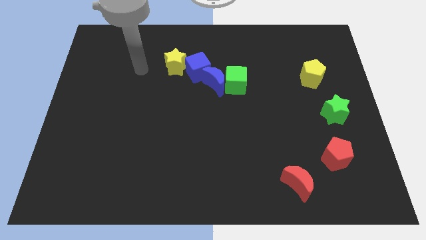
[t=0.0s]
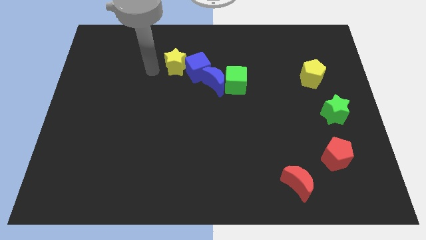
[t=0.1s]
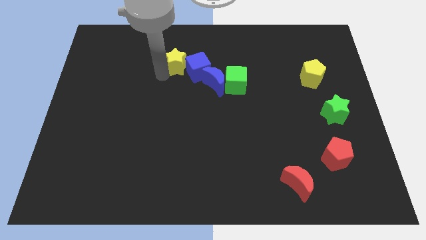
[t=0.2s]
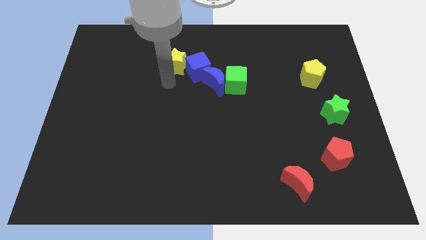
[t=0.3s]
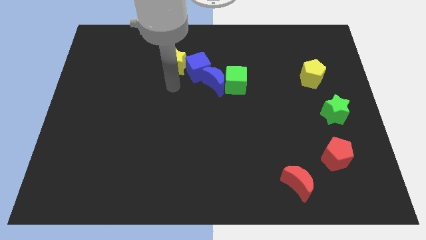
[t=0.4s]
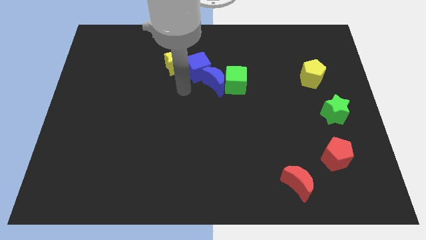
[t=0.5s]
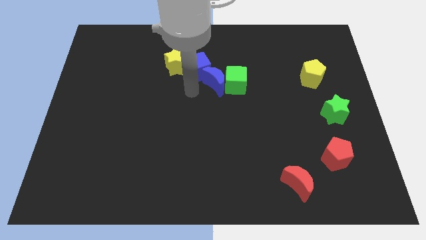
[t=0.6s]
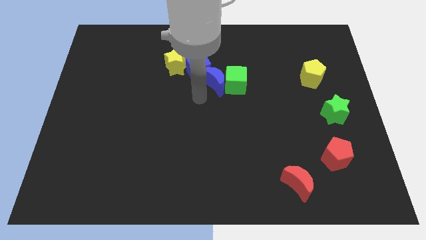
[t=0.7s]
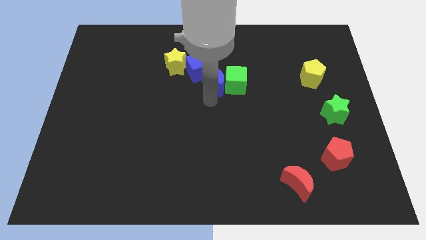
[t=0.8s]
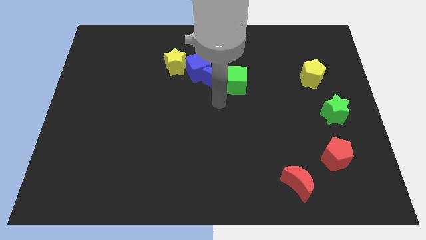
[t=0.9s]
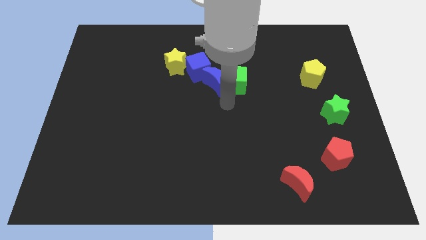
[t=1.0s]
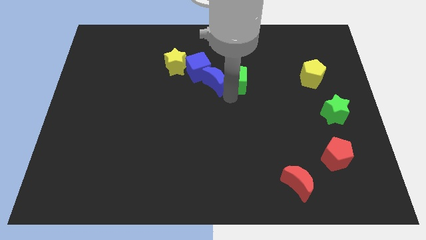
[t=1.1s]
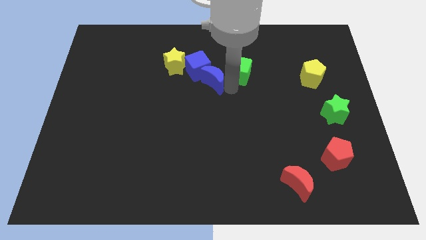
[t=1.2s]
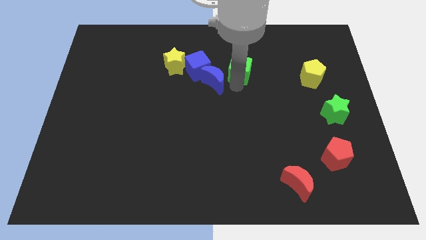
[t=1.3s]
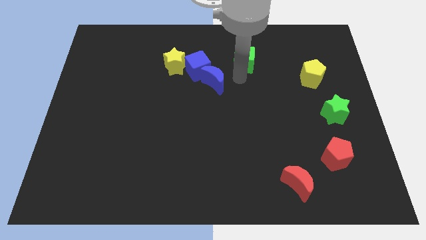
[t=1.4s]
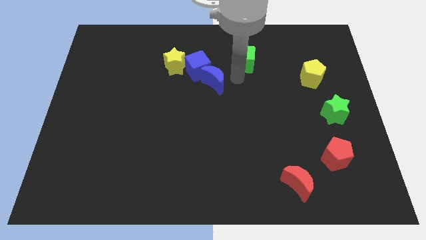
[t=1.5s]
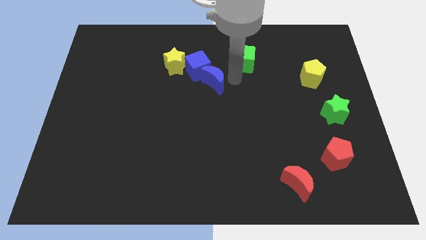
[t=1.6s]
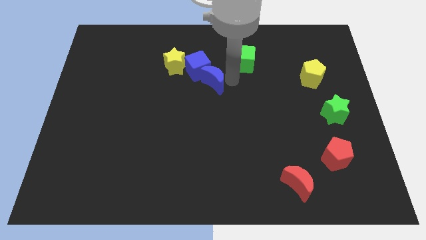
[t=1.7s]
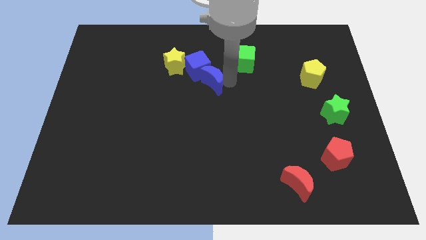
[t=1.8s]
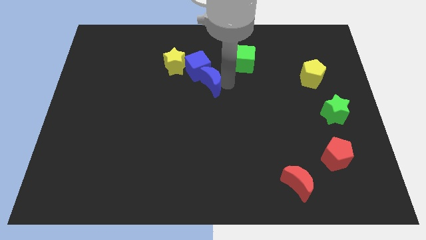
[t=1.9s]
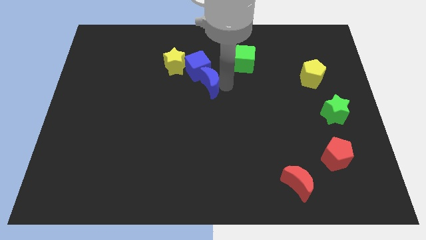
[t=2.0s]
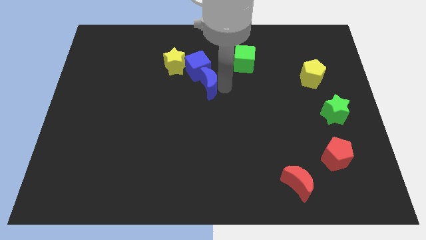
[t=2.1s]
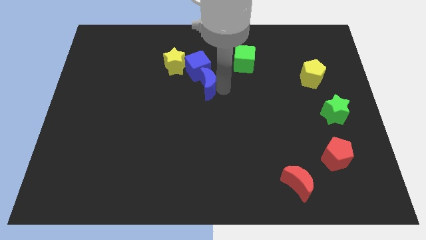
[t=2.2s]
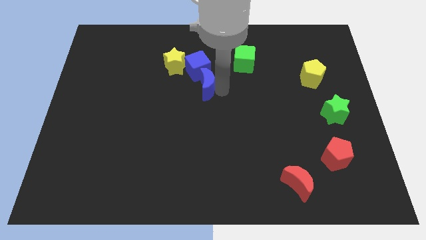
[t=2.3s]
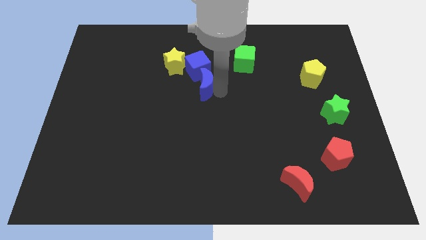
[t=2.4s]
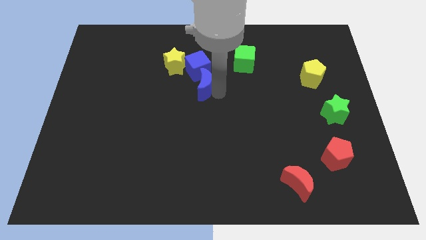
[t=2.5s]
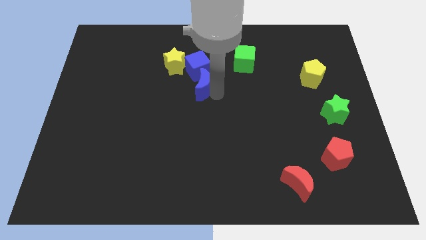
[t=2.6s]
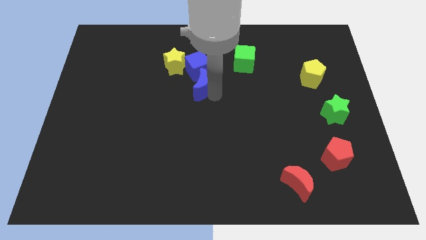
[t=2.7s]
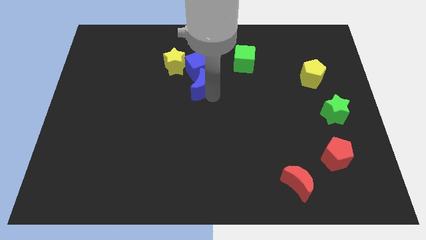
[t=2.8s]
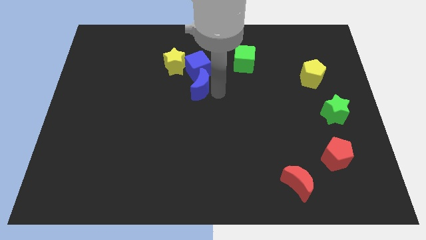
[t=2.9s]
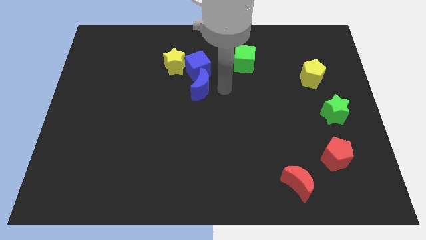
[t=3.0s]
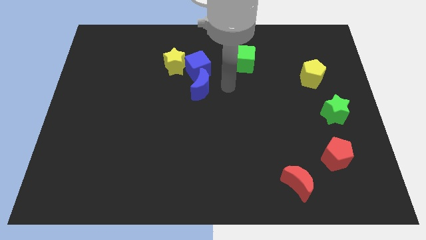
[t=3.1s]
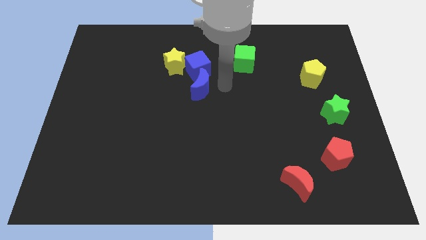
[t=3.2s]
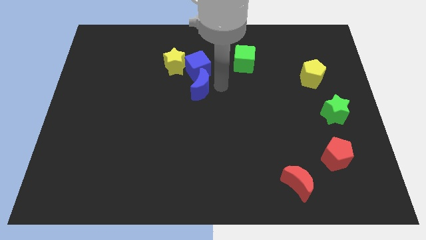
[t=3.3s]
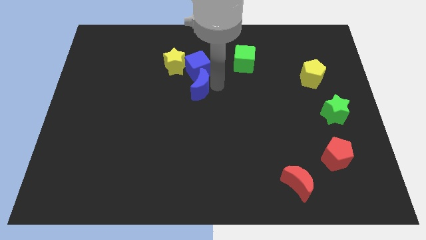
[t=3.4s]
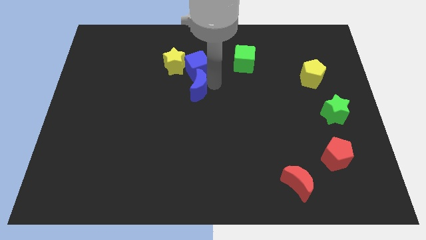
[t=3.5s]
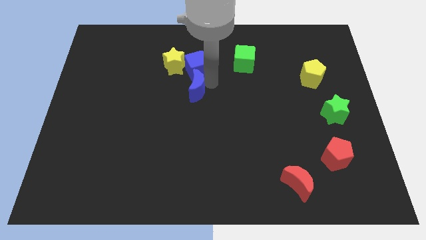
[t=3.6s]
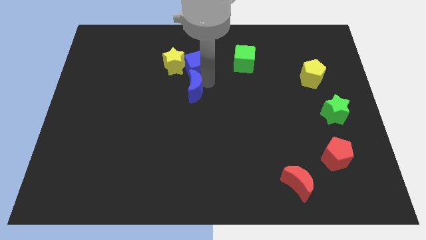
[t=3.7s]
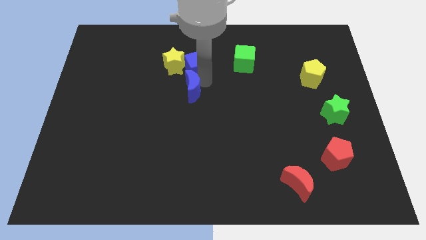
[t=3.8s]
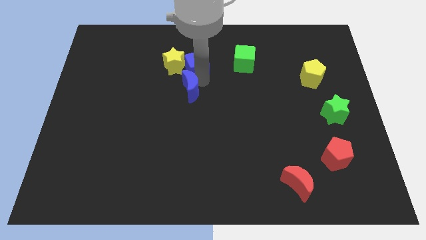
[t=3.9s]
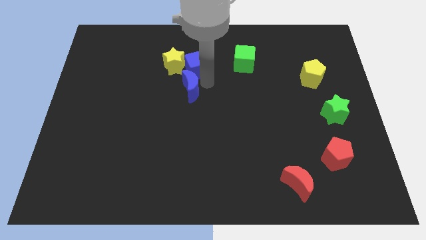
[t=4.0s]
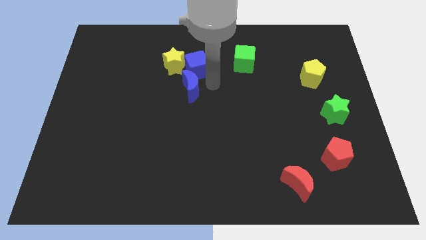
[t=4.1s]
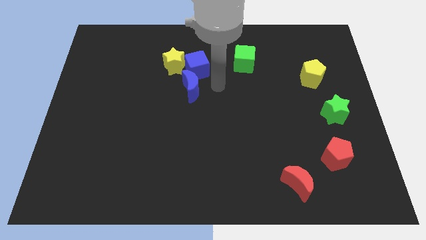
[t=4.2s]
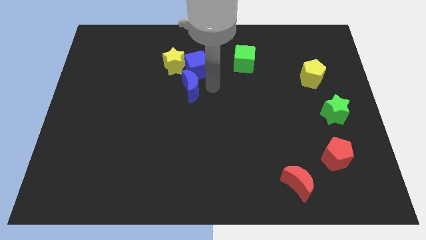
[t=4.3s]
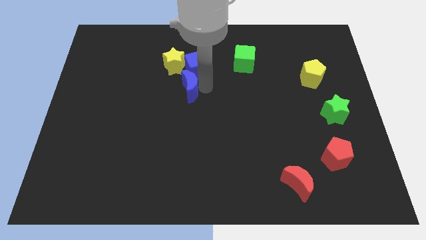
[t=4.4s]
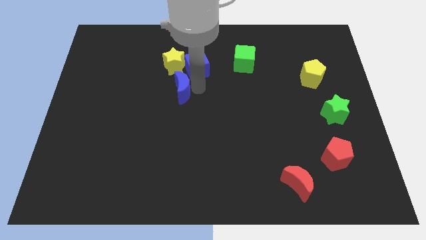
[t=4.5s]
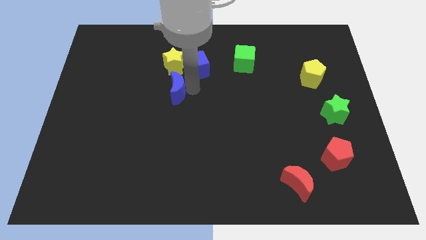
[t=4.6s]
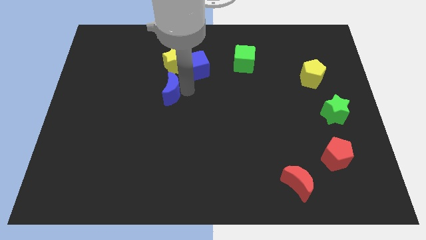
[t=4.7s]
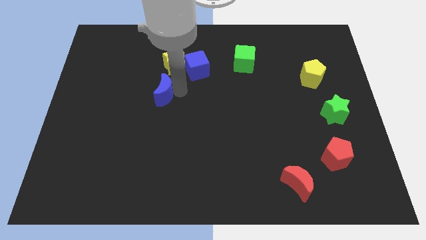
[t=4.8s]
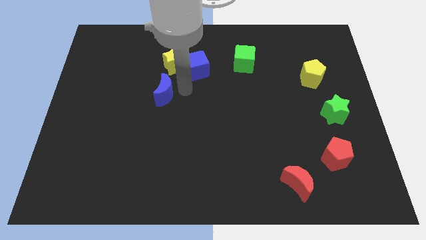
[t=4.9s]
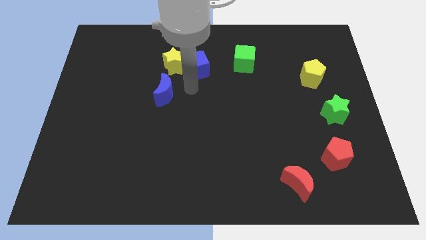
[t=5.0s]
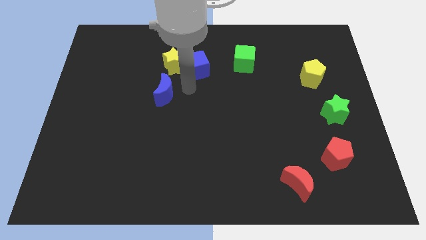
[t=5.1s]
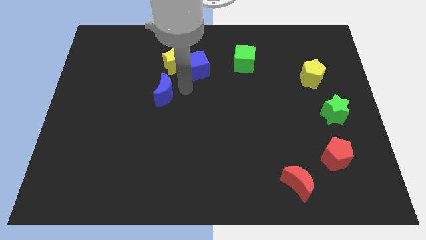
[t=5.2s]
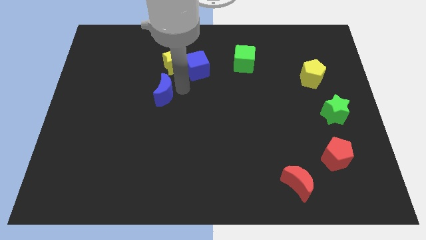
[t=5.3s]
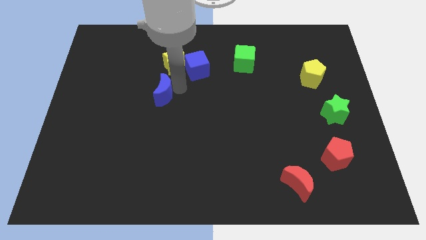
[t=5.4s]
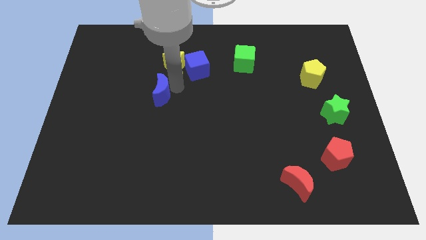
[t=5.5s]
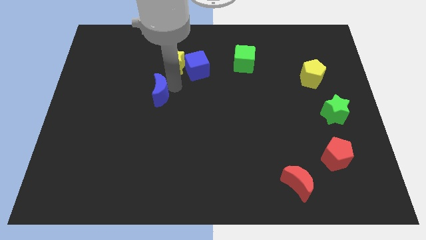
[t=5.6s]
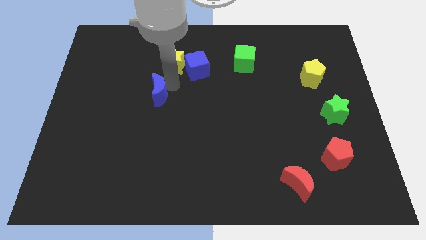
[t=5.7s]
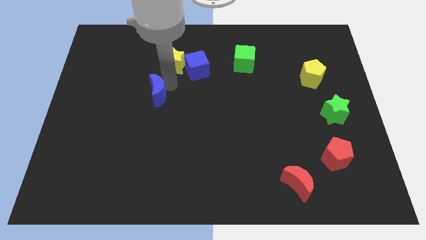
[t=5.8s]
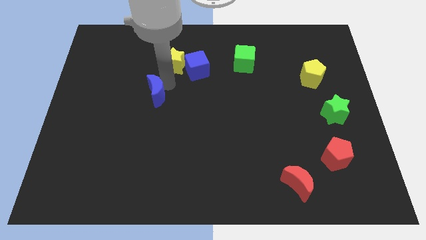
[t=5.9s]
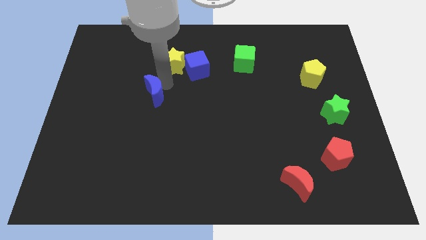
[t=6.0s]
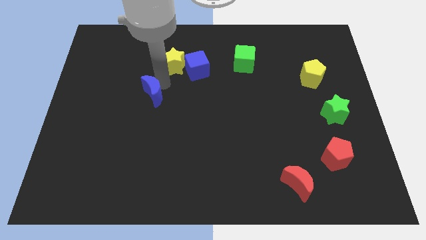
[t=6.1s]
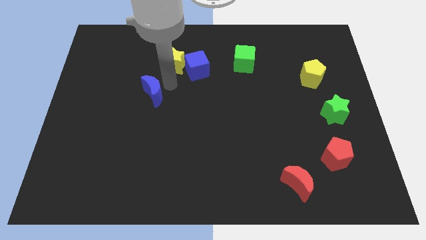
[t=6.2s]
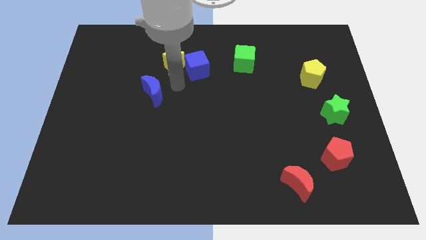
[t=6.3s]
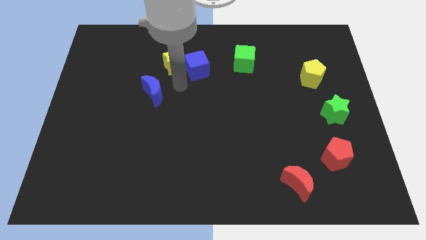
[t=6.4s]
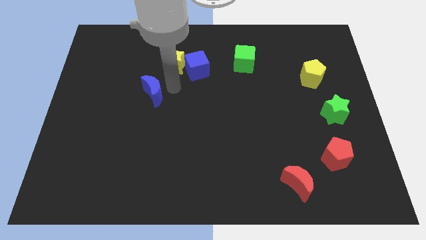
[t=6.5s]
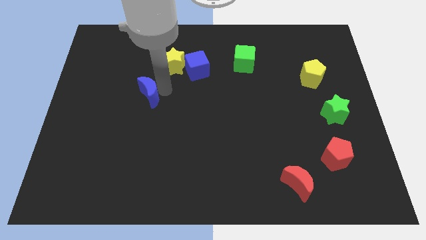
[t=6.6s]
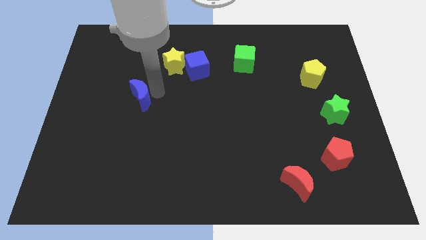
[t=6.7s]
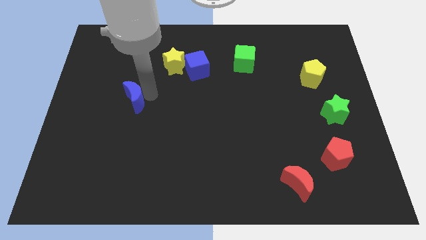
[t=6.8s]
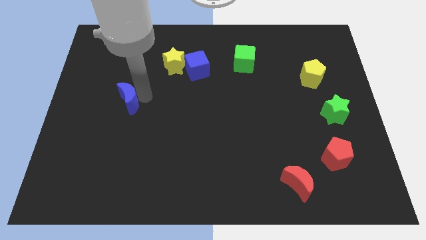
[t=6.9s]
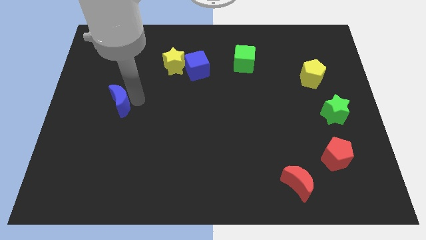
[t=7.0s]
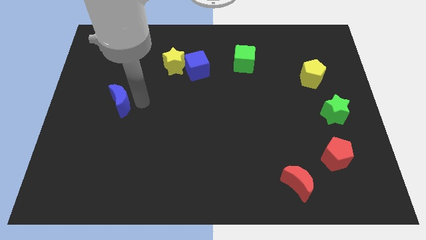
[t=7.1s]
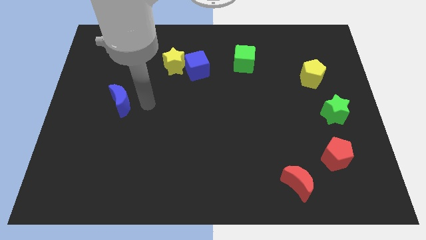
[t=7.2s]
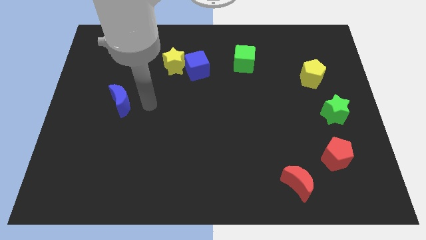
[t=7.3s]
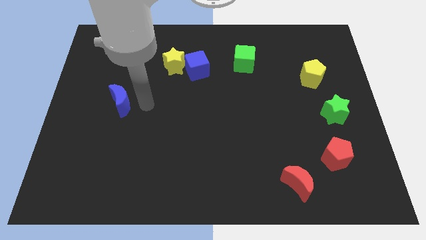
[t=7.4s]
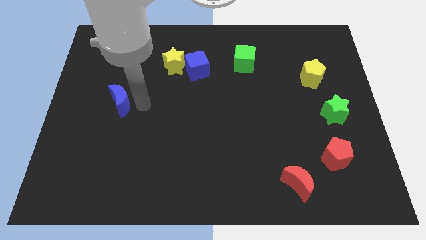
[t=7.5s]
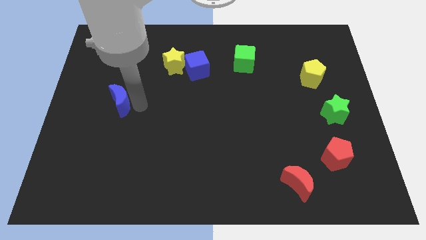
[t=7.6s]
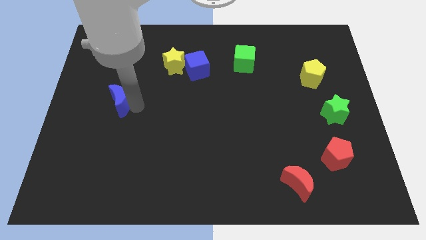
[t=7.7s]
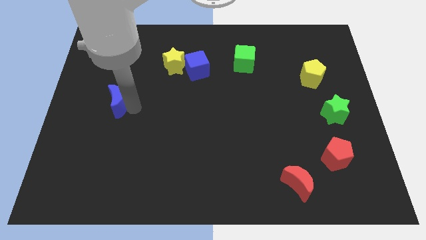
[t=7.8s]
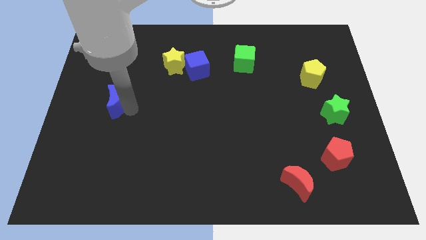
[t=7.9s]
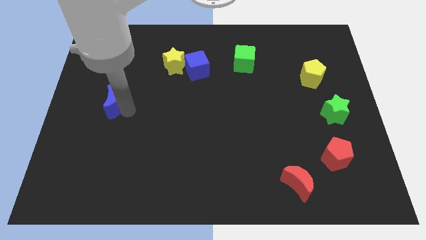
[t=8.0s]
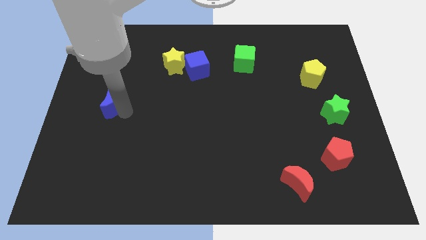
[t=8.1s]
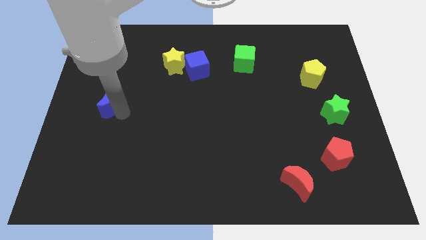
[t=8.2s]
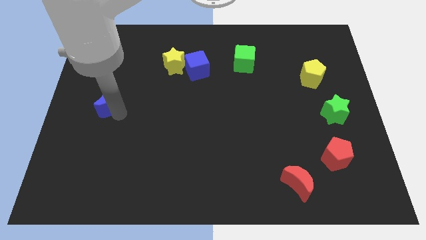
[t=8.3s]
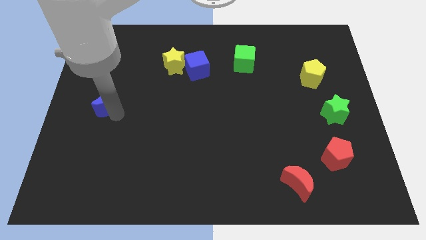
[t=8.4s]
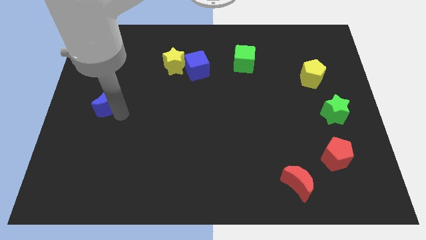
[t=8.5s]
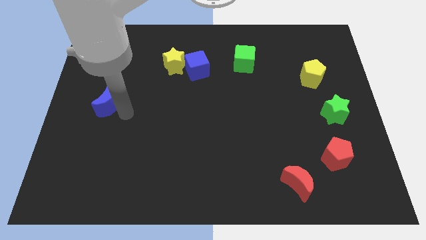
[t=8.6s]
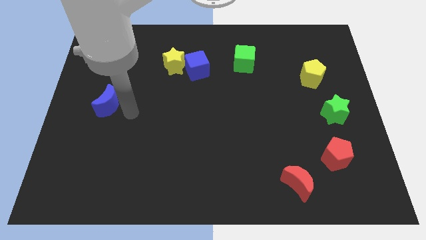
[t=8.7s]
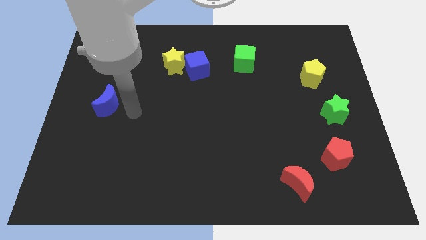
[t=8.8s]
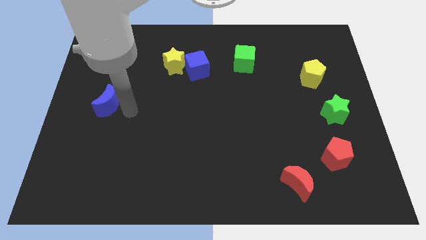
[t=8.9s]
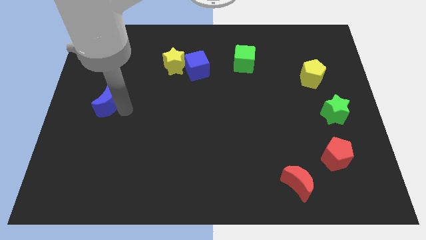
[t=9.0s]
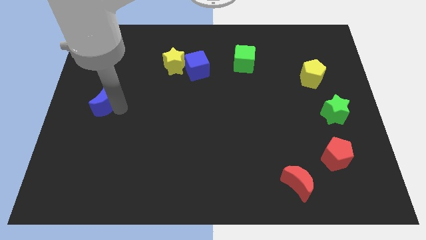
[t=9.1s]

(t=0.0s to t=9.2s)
move the blue moon to the center left
